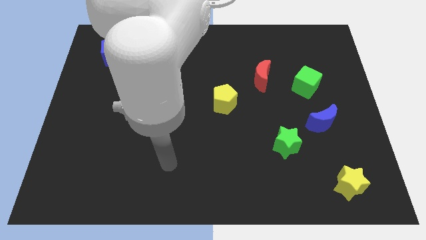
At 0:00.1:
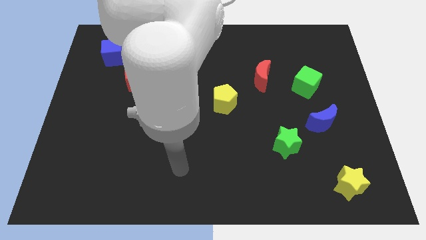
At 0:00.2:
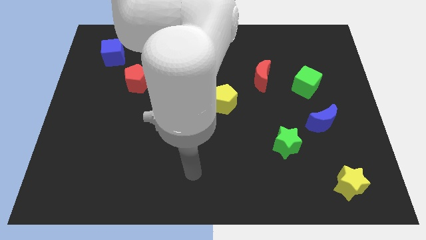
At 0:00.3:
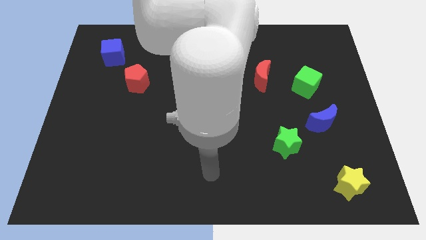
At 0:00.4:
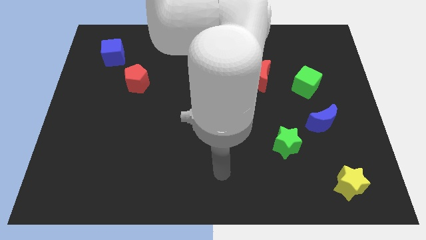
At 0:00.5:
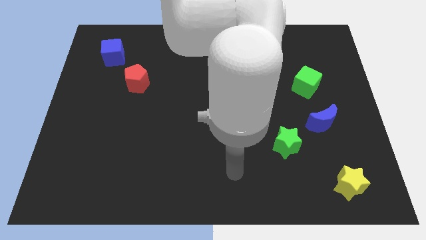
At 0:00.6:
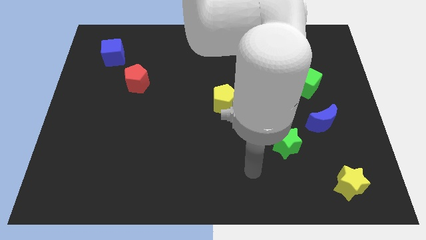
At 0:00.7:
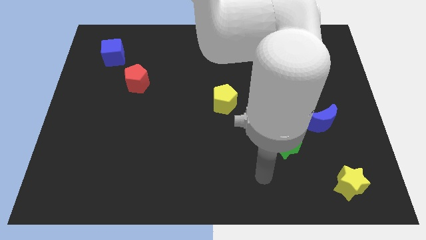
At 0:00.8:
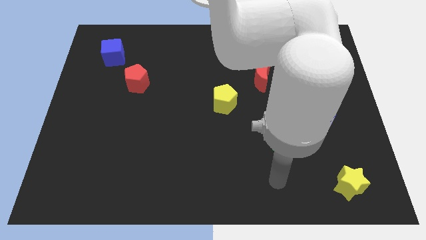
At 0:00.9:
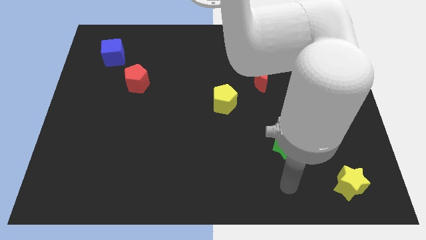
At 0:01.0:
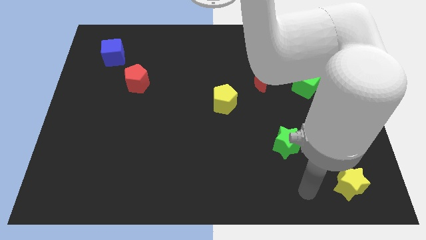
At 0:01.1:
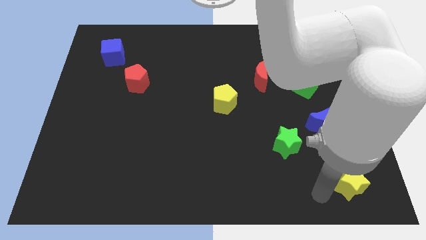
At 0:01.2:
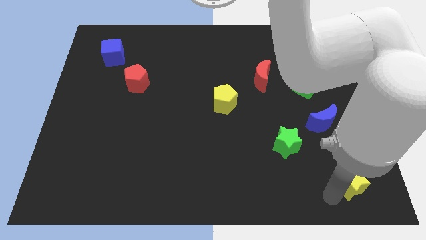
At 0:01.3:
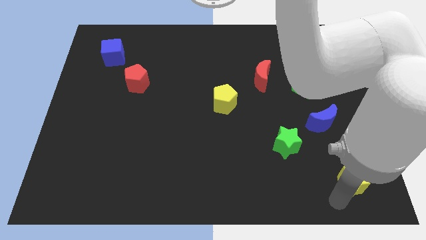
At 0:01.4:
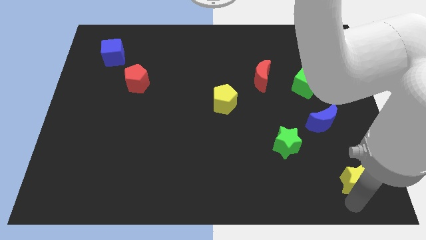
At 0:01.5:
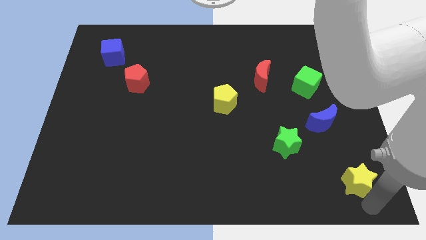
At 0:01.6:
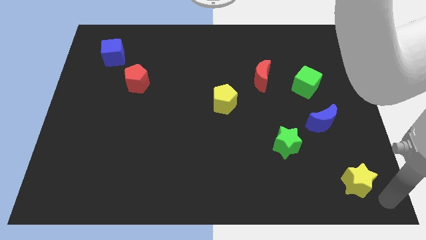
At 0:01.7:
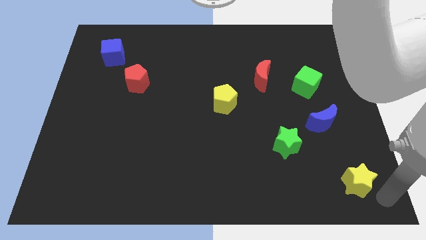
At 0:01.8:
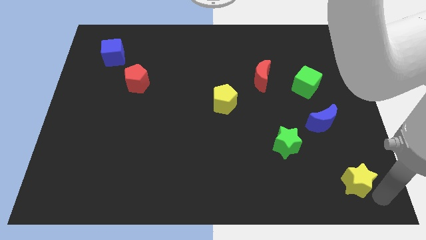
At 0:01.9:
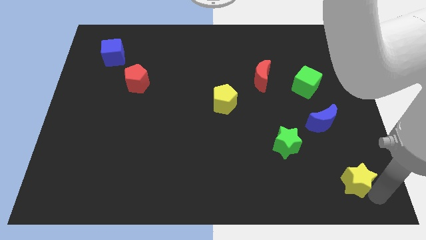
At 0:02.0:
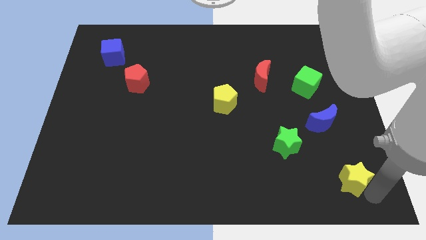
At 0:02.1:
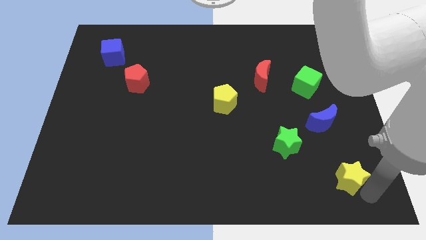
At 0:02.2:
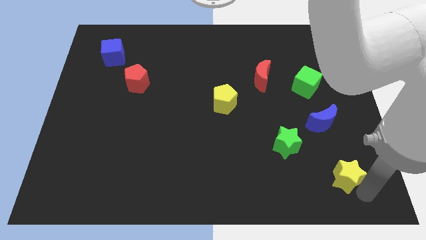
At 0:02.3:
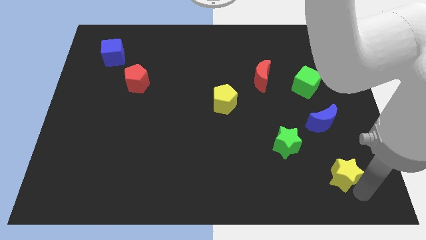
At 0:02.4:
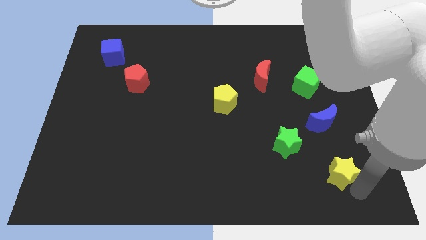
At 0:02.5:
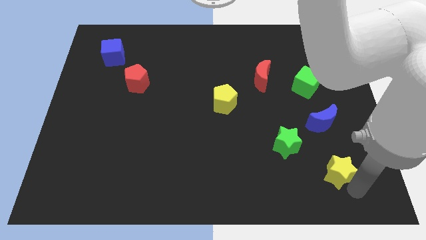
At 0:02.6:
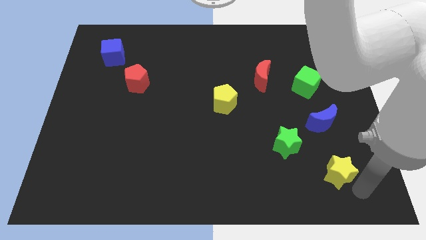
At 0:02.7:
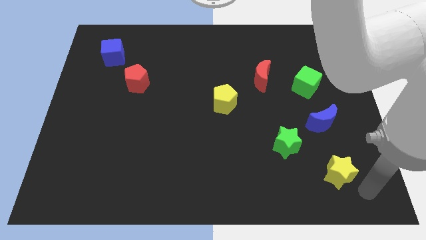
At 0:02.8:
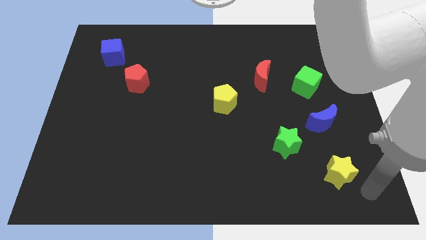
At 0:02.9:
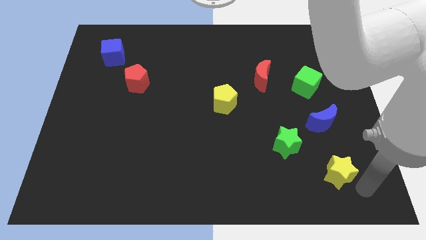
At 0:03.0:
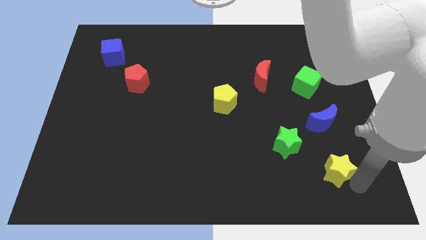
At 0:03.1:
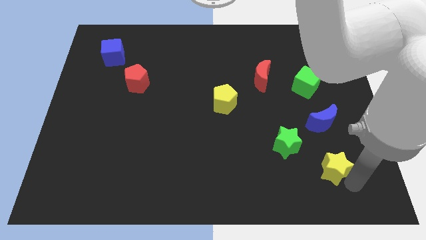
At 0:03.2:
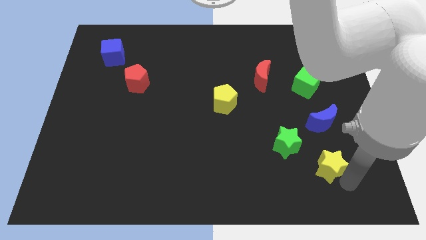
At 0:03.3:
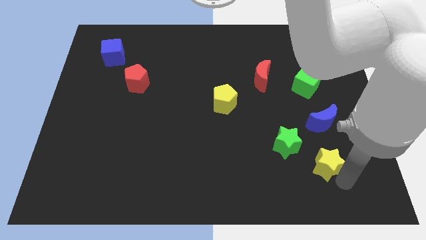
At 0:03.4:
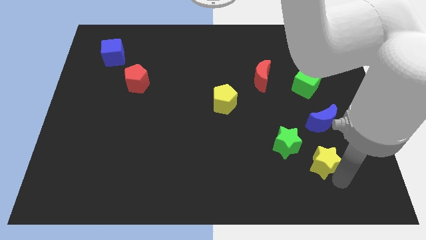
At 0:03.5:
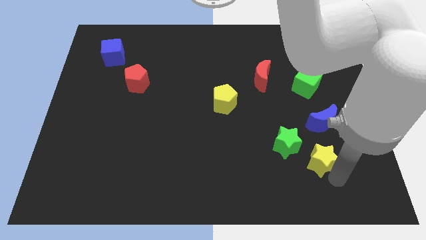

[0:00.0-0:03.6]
push the yellow star a bit diagonally up and to the left

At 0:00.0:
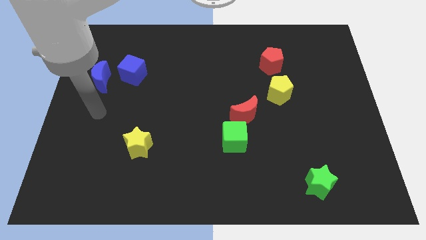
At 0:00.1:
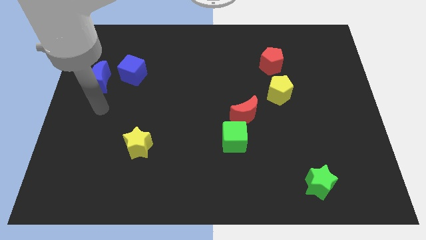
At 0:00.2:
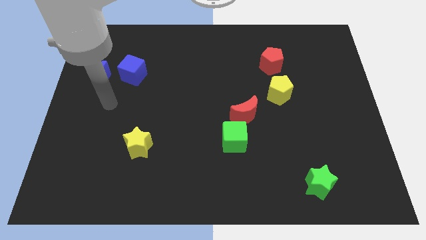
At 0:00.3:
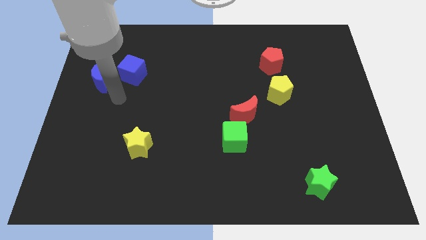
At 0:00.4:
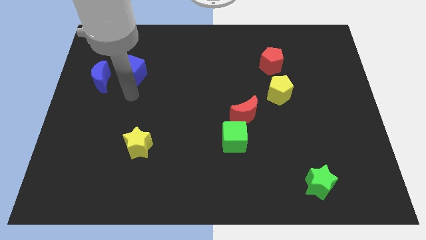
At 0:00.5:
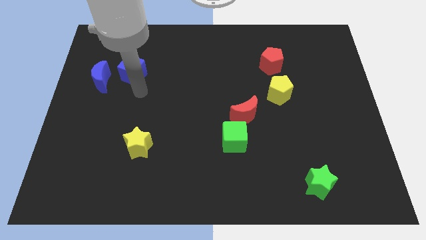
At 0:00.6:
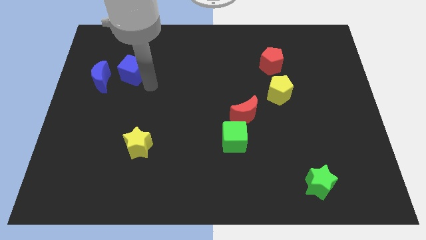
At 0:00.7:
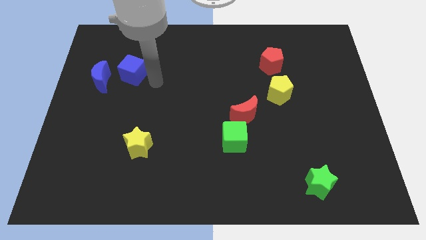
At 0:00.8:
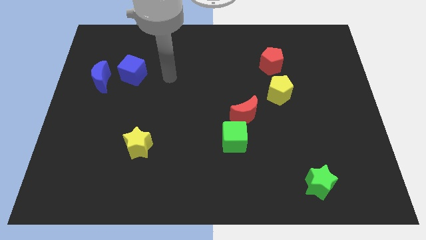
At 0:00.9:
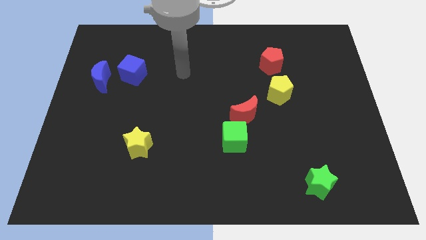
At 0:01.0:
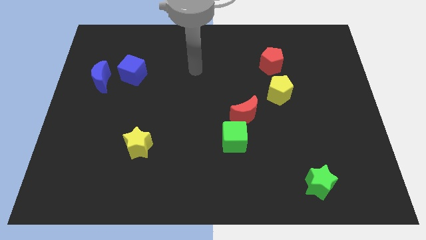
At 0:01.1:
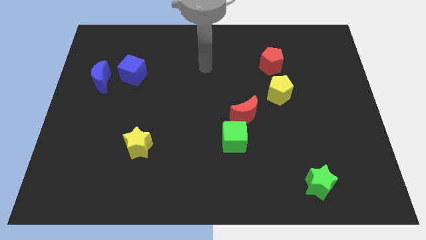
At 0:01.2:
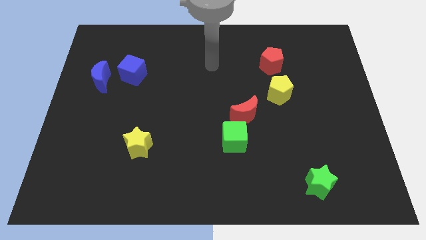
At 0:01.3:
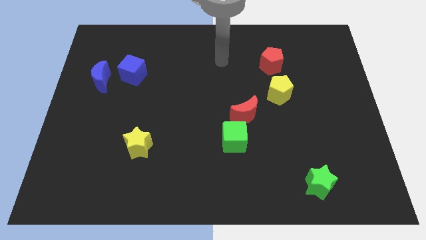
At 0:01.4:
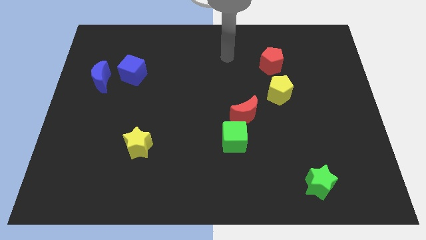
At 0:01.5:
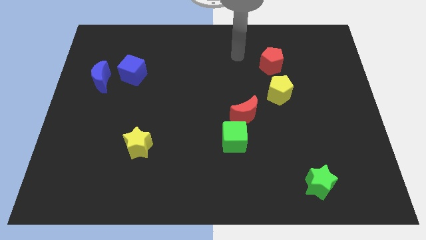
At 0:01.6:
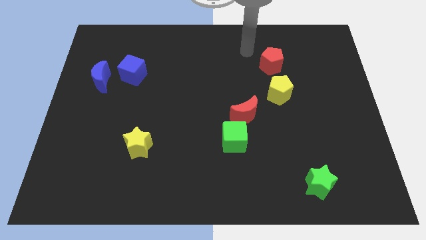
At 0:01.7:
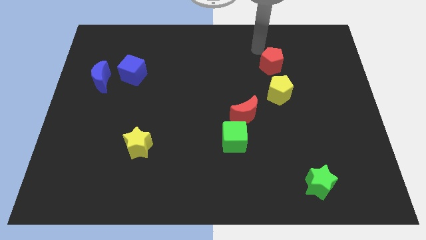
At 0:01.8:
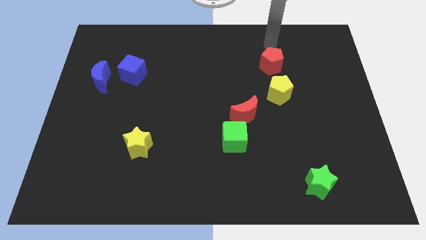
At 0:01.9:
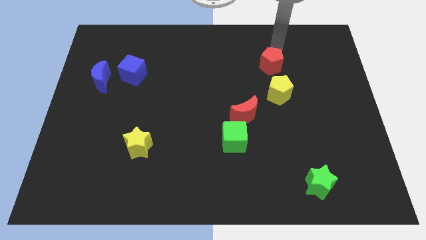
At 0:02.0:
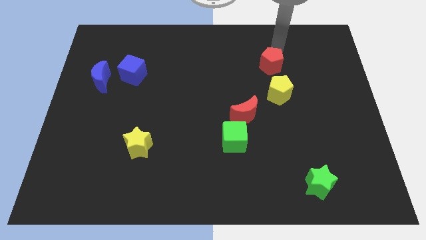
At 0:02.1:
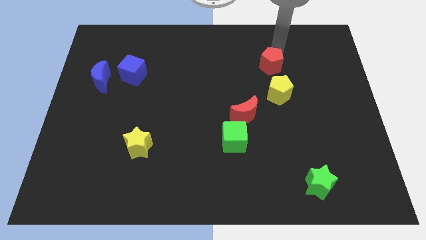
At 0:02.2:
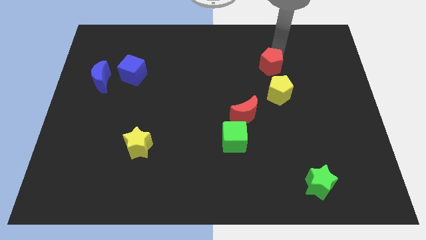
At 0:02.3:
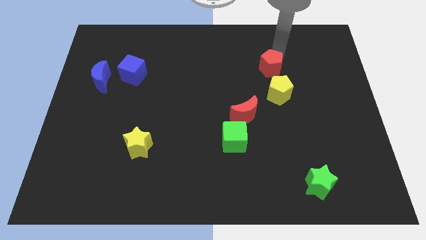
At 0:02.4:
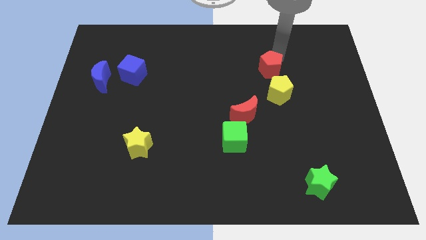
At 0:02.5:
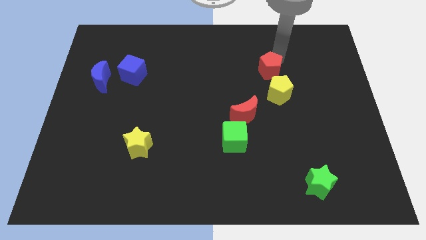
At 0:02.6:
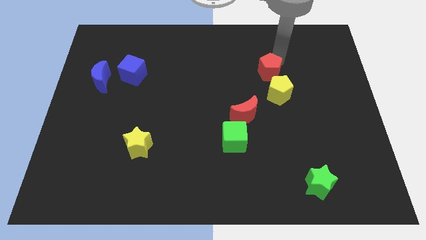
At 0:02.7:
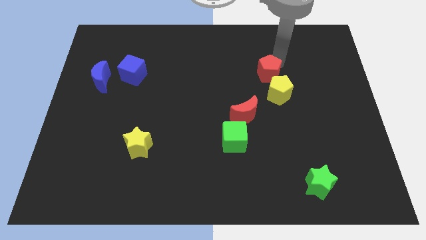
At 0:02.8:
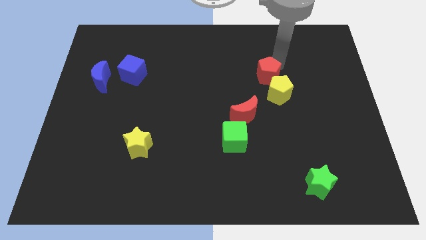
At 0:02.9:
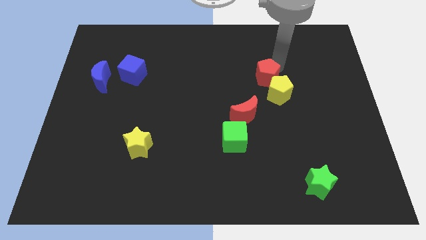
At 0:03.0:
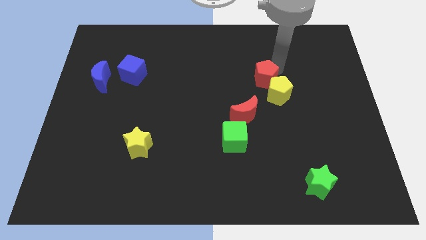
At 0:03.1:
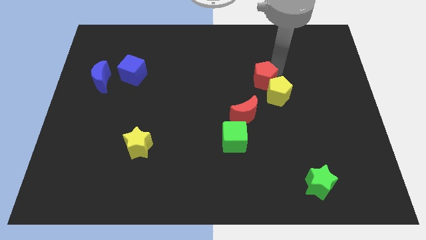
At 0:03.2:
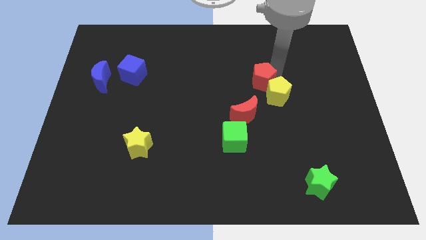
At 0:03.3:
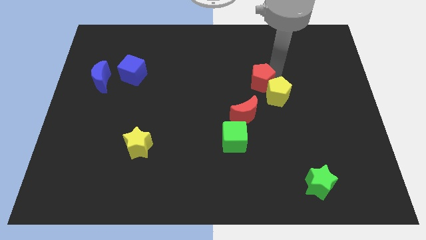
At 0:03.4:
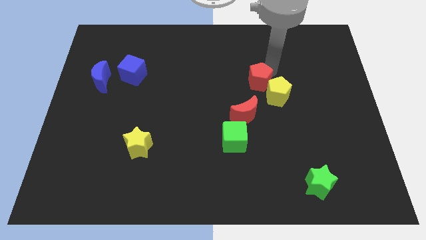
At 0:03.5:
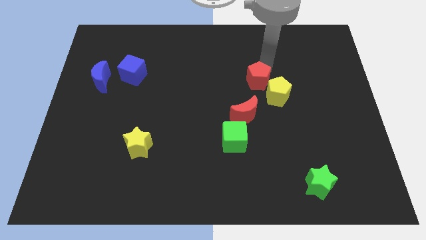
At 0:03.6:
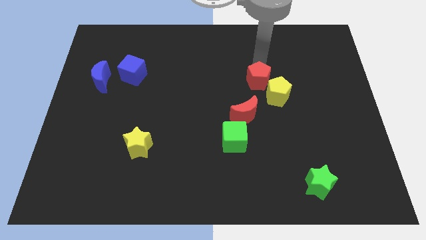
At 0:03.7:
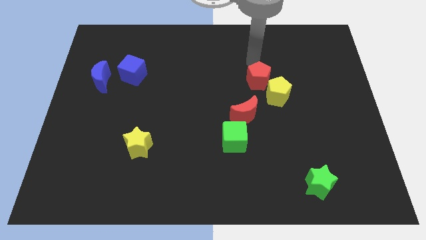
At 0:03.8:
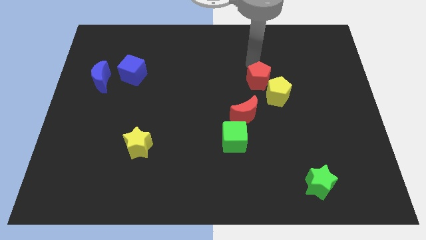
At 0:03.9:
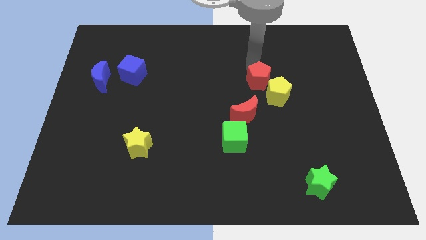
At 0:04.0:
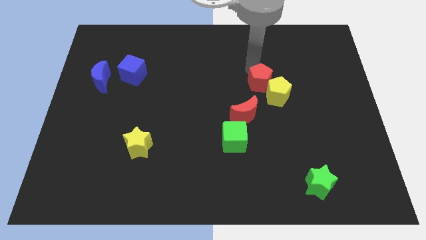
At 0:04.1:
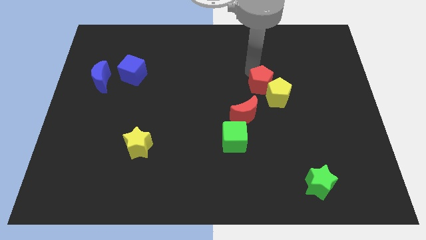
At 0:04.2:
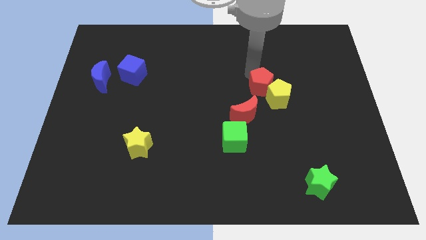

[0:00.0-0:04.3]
move the red pentagon down a bit
